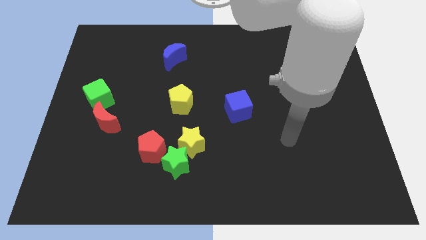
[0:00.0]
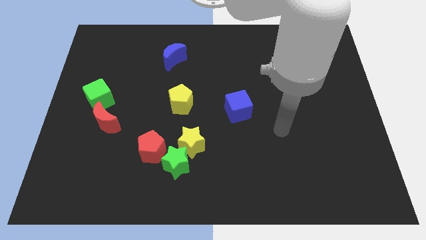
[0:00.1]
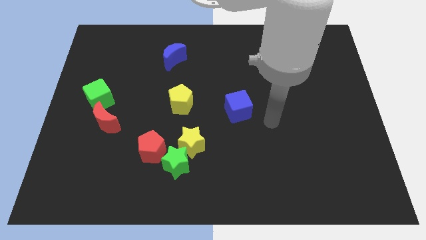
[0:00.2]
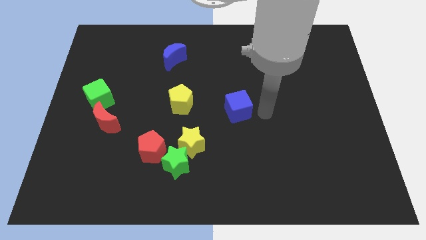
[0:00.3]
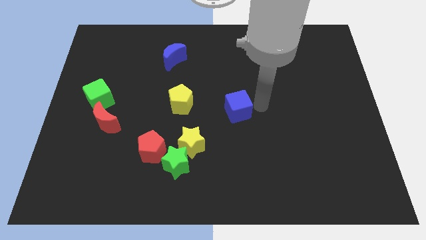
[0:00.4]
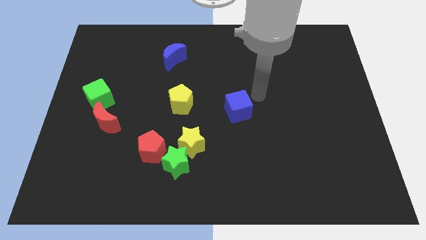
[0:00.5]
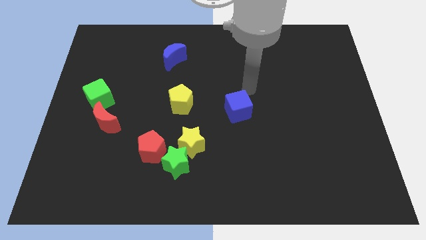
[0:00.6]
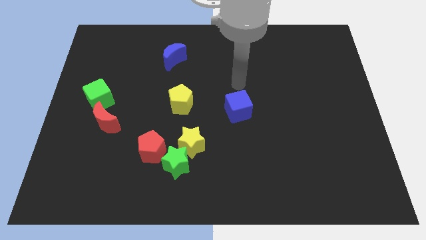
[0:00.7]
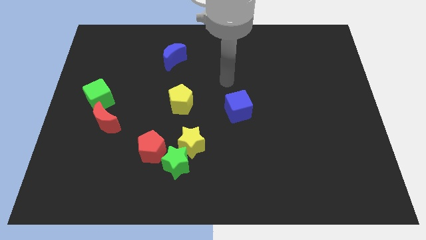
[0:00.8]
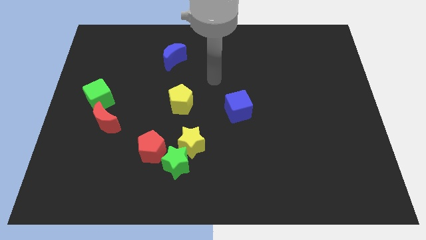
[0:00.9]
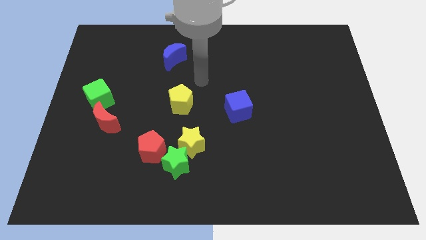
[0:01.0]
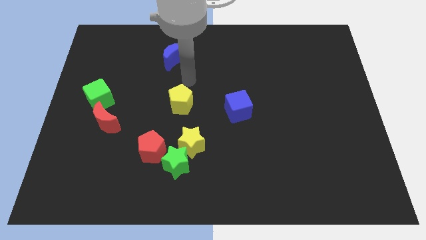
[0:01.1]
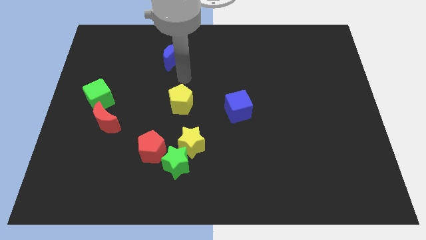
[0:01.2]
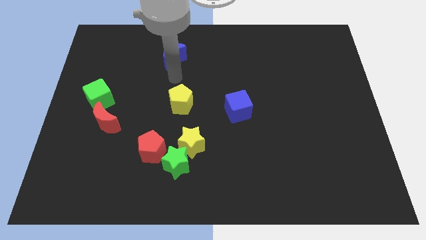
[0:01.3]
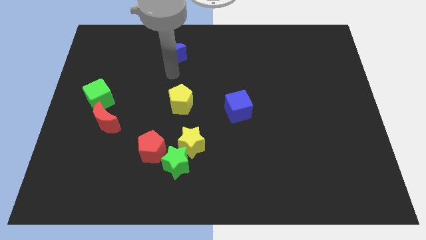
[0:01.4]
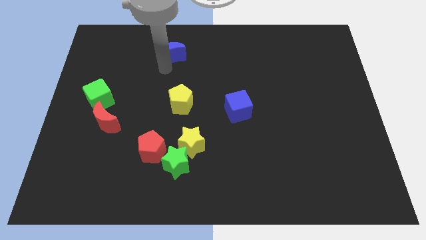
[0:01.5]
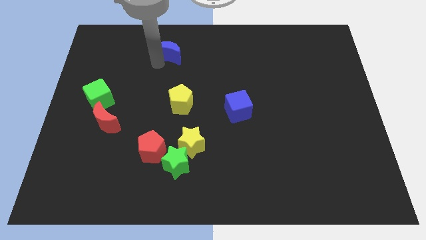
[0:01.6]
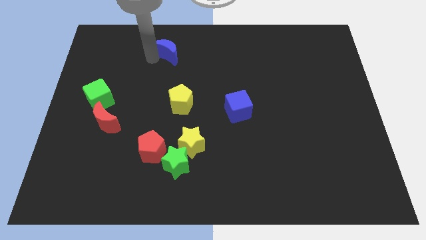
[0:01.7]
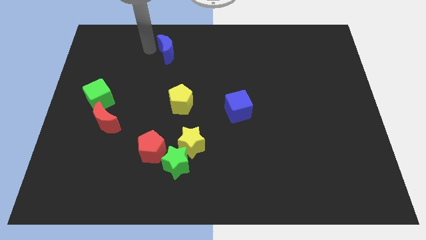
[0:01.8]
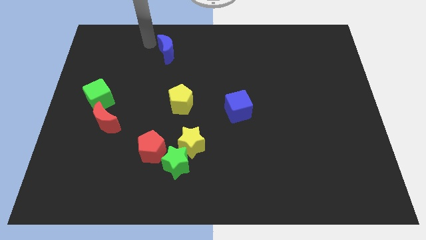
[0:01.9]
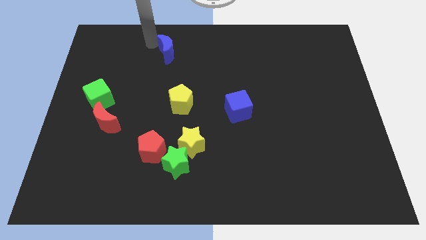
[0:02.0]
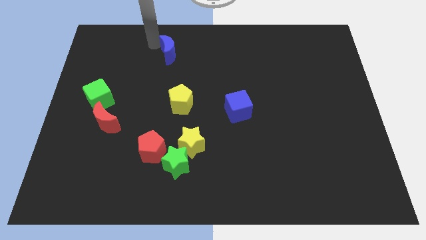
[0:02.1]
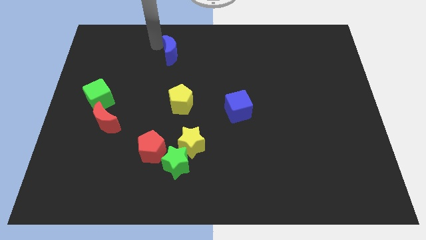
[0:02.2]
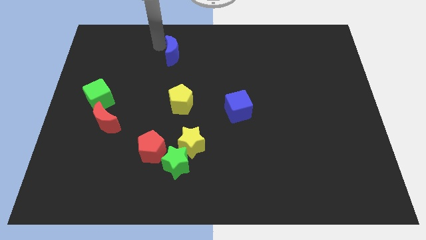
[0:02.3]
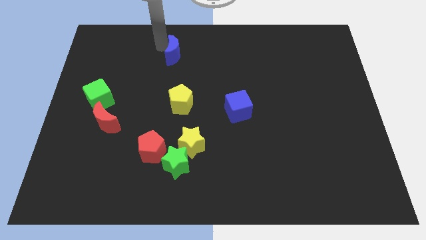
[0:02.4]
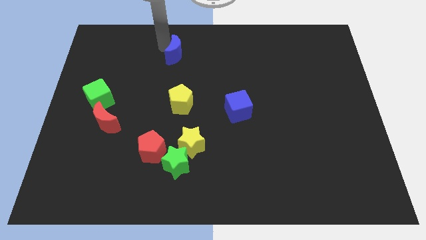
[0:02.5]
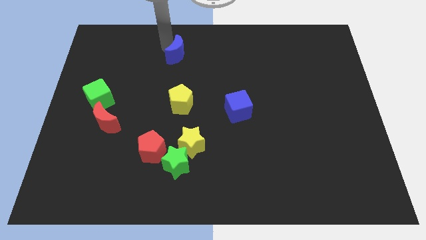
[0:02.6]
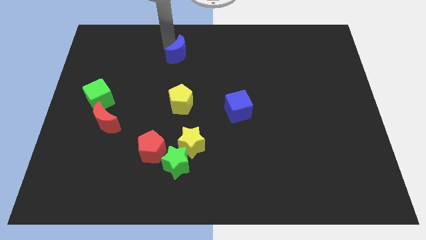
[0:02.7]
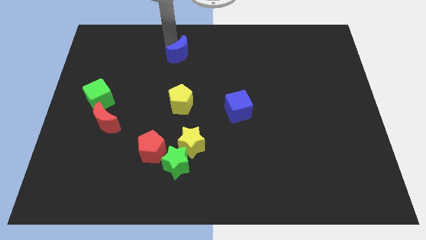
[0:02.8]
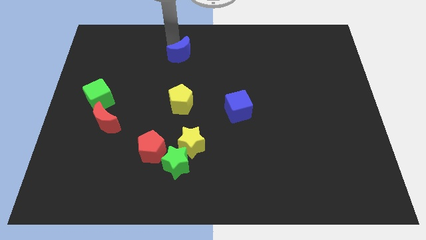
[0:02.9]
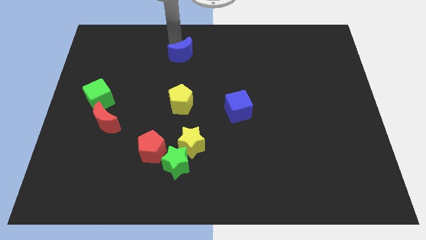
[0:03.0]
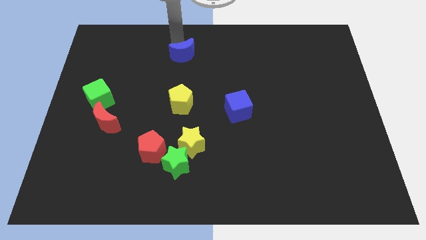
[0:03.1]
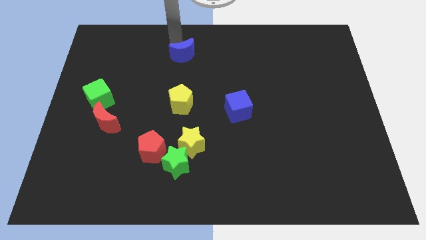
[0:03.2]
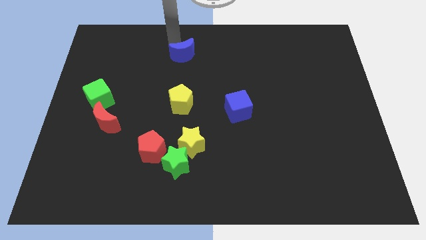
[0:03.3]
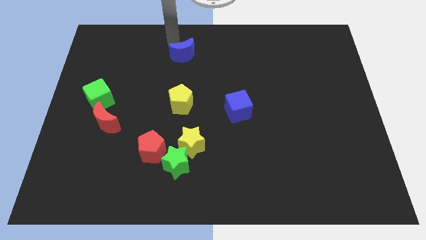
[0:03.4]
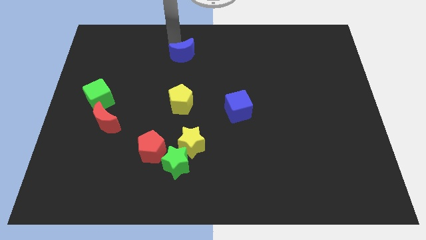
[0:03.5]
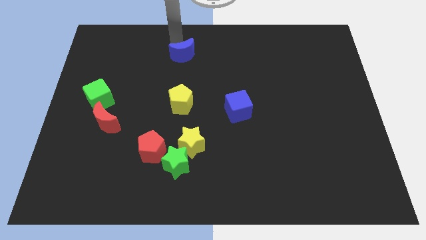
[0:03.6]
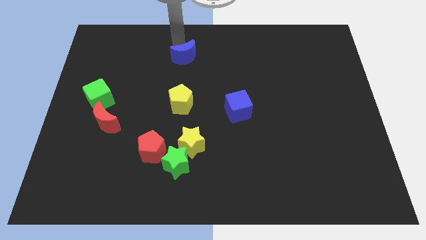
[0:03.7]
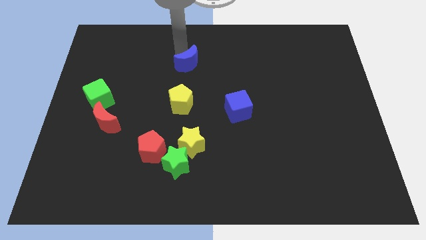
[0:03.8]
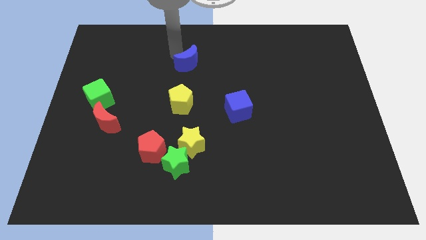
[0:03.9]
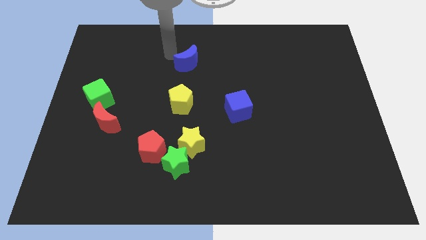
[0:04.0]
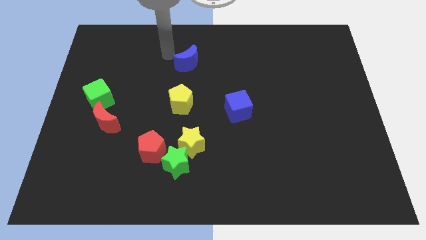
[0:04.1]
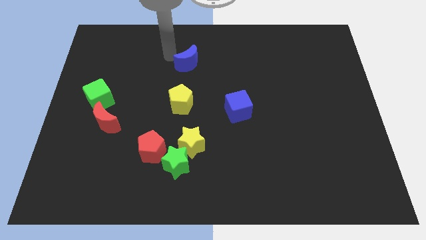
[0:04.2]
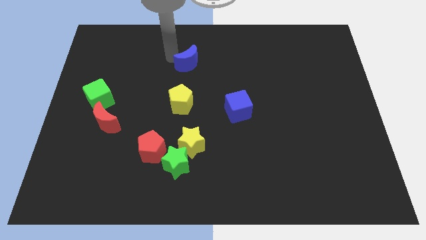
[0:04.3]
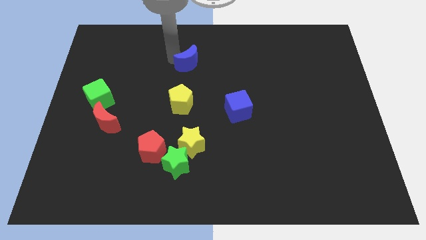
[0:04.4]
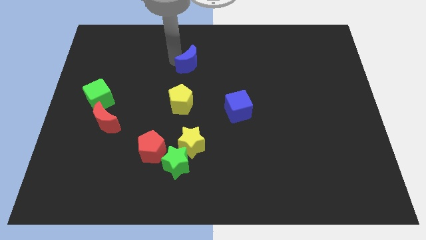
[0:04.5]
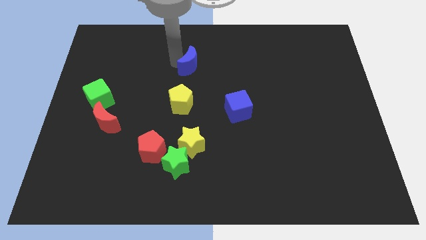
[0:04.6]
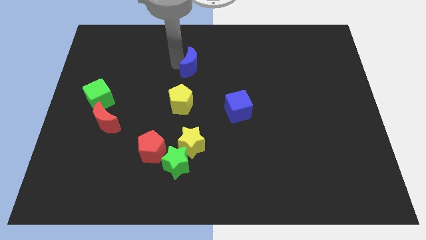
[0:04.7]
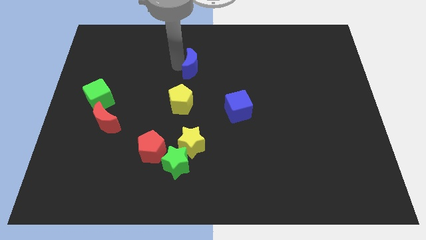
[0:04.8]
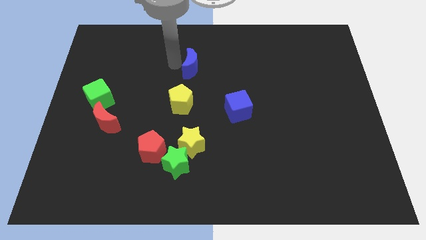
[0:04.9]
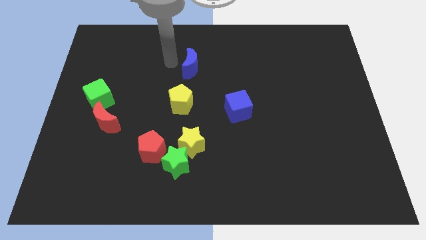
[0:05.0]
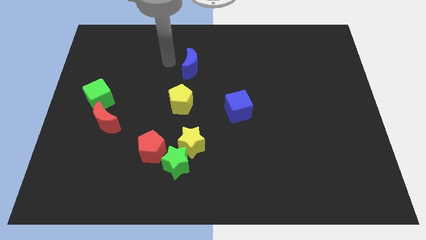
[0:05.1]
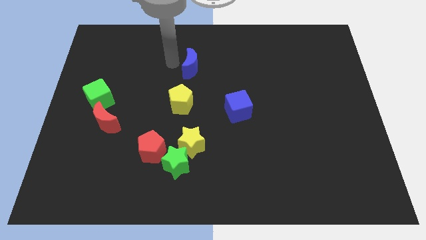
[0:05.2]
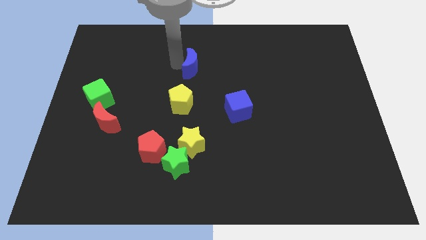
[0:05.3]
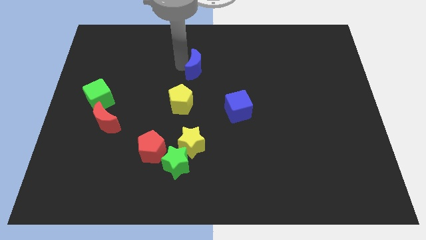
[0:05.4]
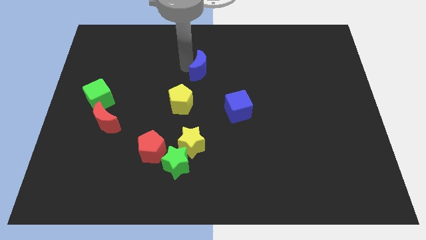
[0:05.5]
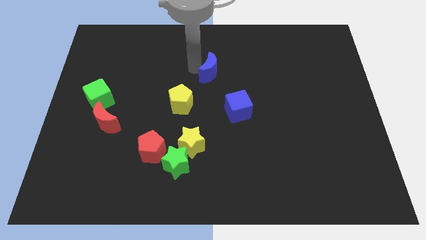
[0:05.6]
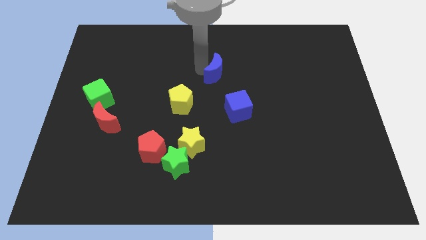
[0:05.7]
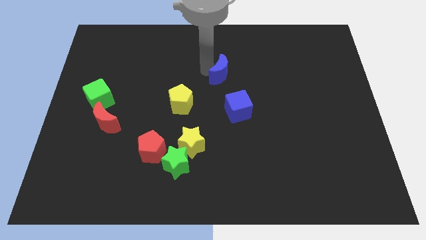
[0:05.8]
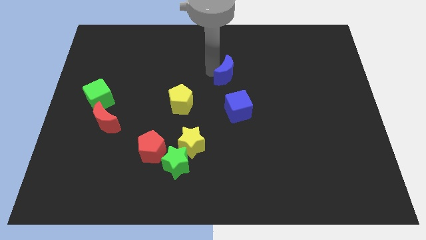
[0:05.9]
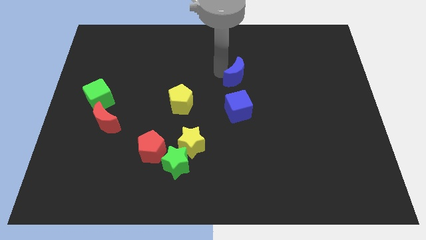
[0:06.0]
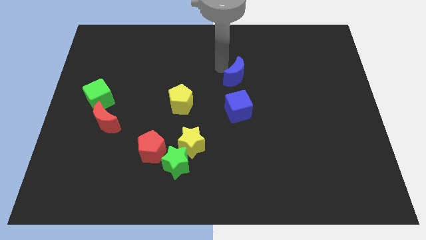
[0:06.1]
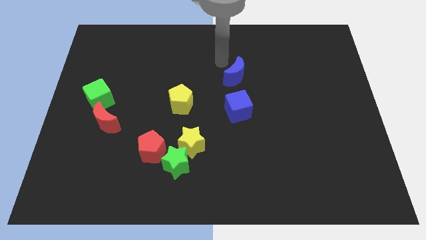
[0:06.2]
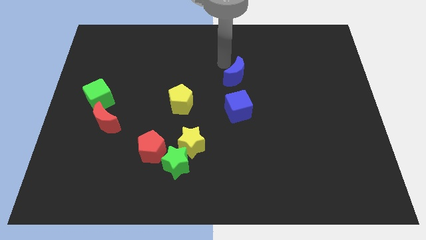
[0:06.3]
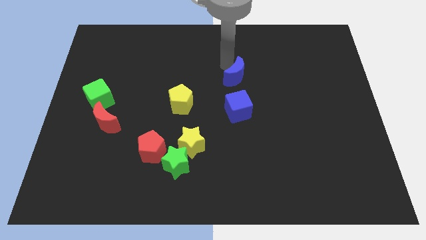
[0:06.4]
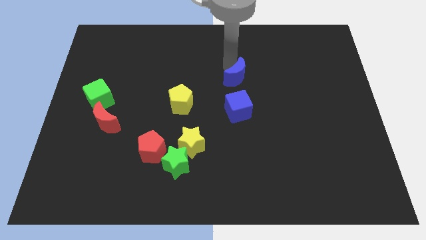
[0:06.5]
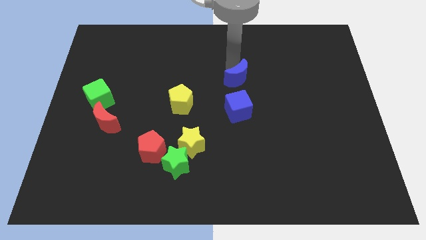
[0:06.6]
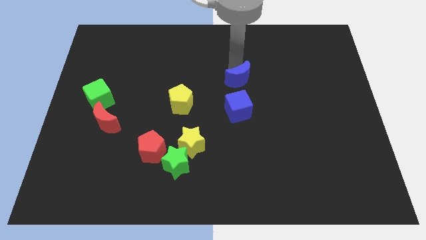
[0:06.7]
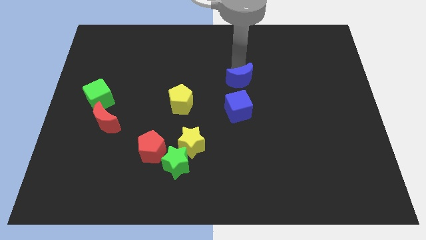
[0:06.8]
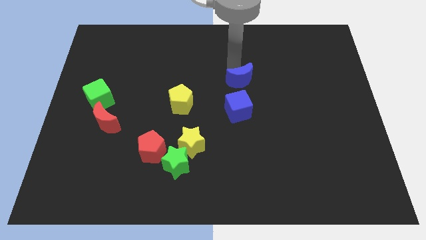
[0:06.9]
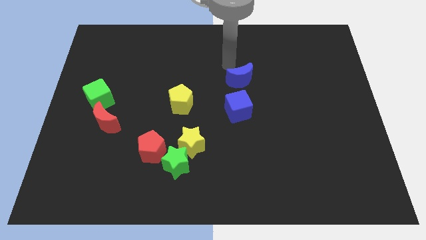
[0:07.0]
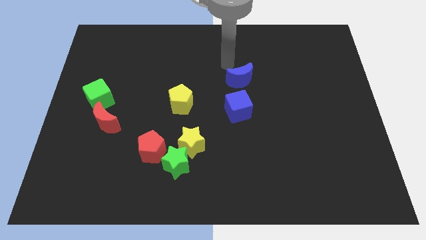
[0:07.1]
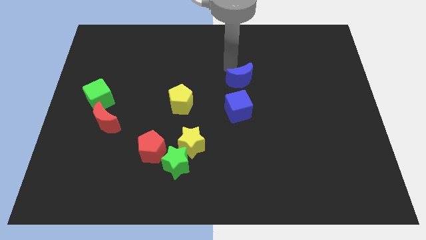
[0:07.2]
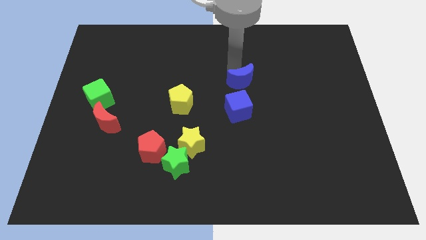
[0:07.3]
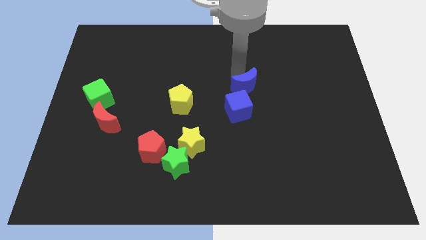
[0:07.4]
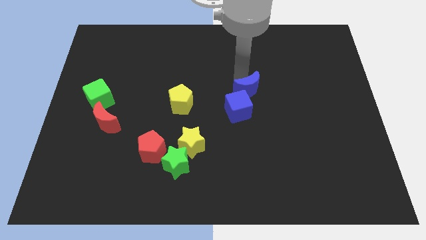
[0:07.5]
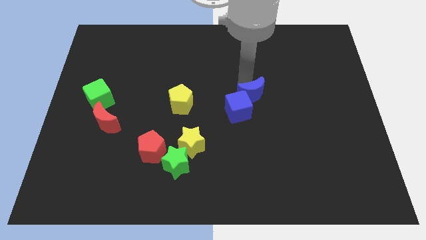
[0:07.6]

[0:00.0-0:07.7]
move the blue moon downwards and then to the right

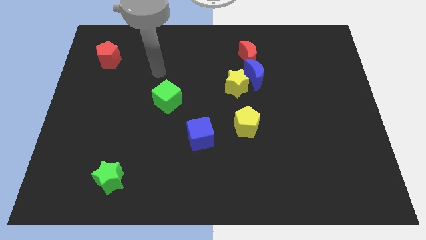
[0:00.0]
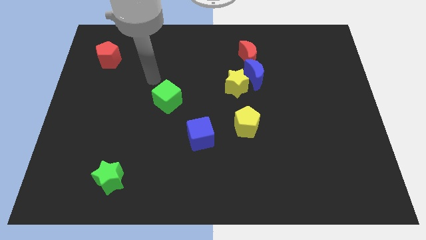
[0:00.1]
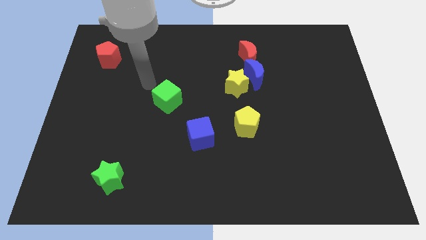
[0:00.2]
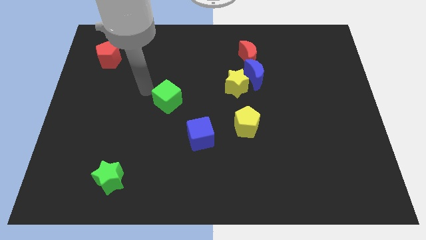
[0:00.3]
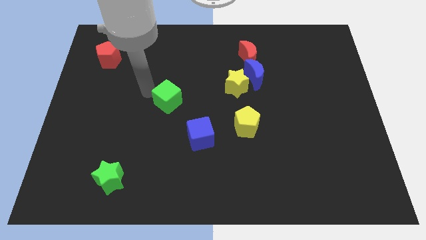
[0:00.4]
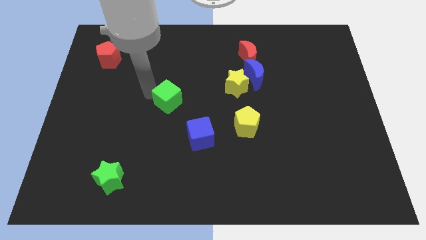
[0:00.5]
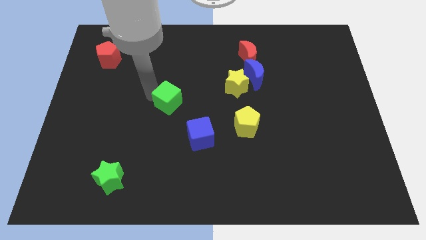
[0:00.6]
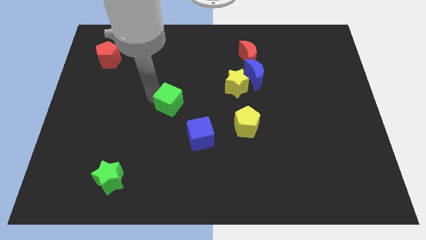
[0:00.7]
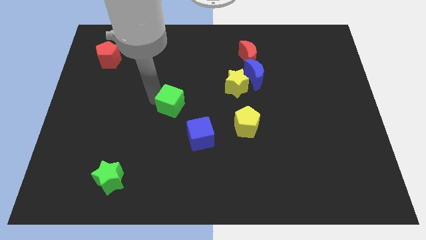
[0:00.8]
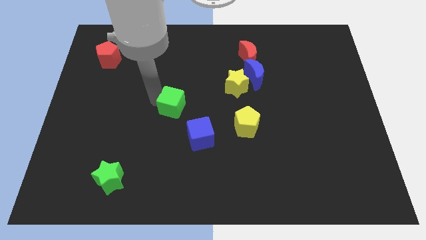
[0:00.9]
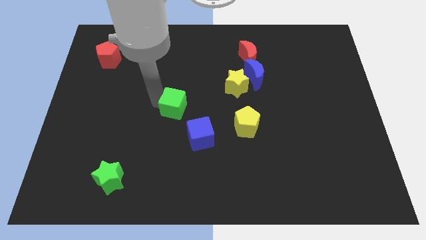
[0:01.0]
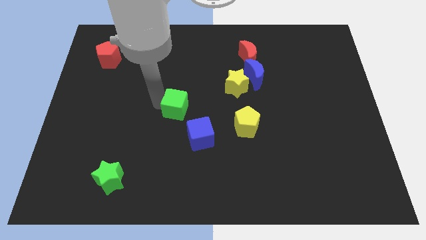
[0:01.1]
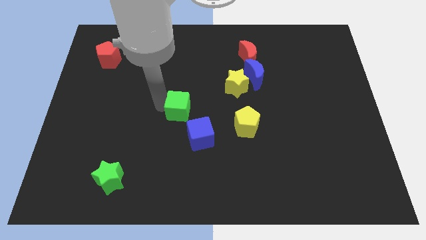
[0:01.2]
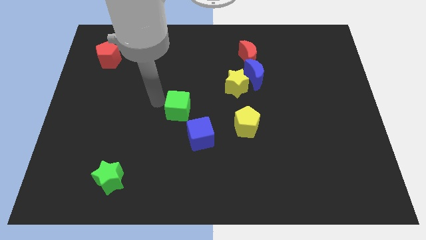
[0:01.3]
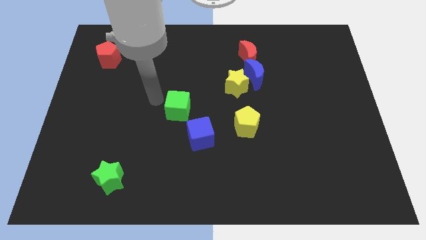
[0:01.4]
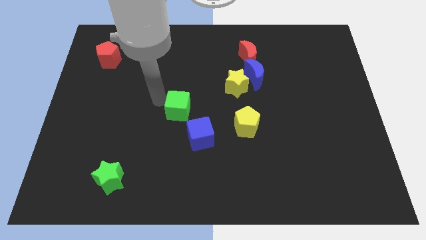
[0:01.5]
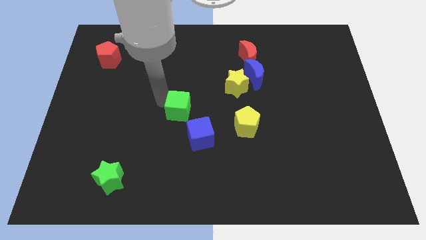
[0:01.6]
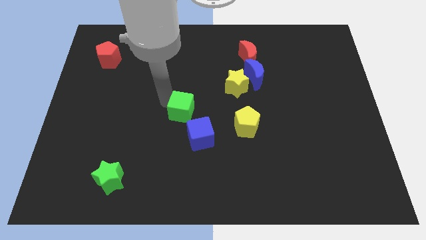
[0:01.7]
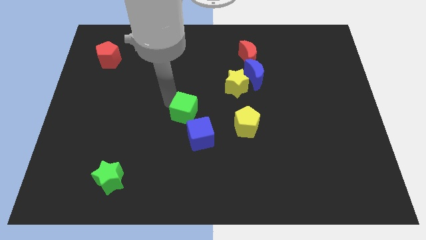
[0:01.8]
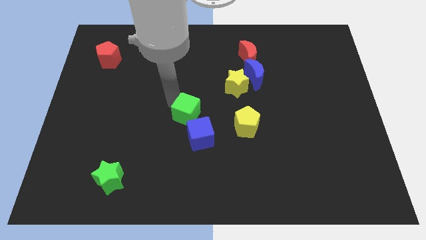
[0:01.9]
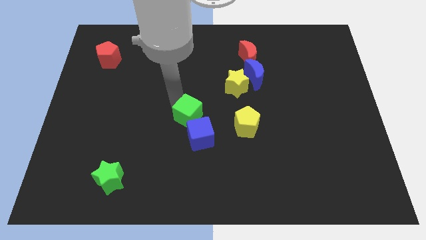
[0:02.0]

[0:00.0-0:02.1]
move the green cube a little downwards and right diagonally
